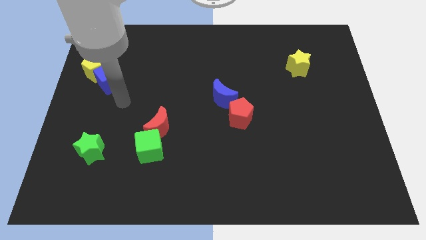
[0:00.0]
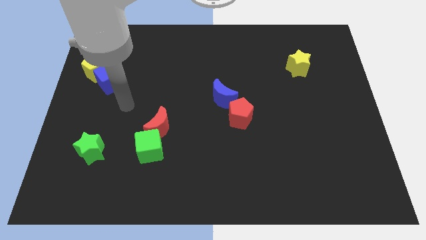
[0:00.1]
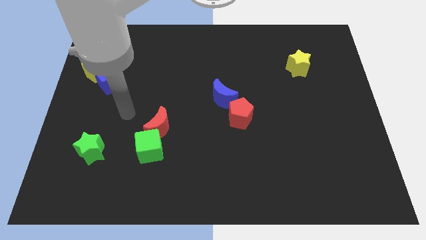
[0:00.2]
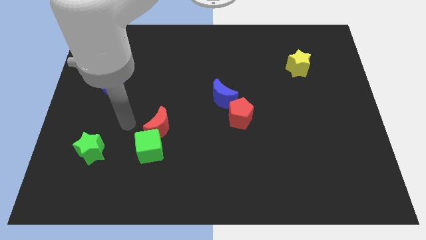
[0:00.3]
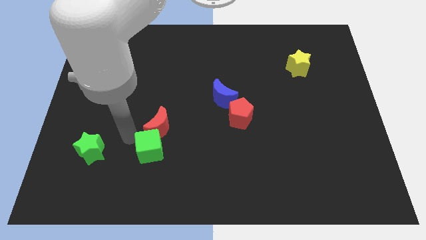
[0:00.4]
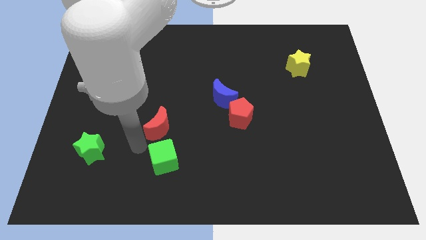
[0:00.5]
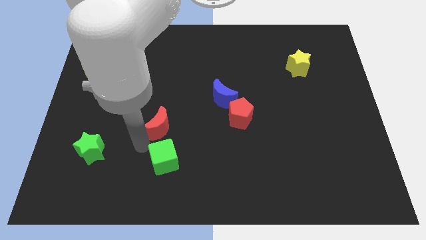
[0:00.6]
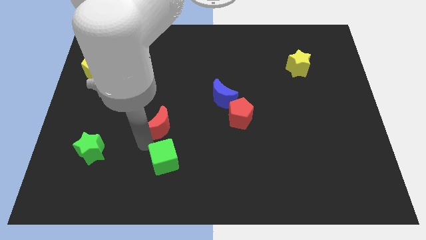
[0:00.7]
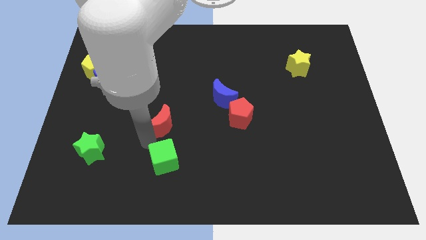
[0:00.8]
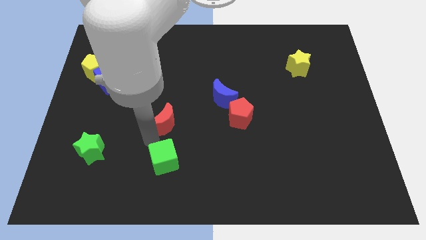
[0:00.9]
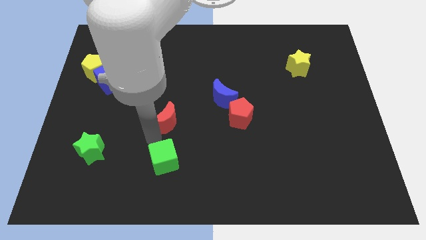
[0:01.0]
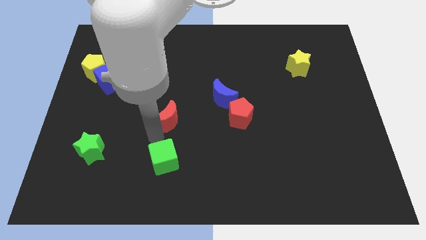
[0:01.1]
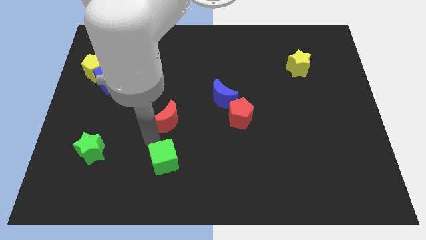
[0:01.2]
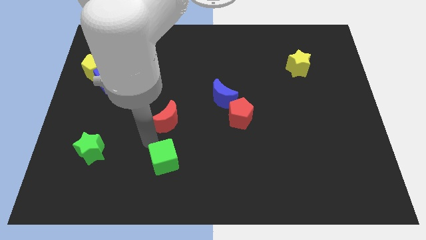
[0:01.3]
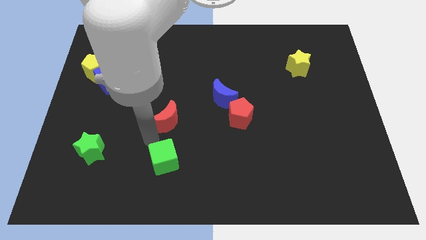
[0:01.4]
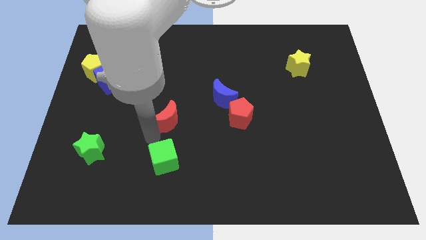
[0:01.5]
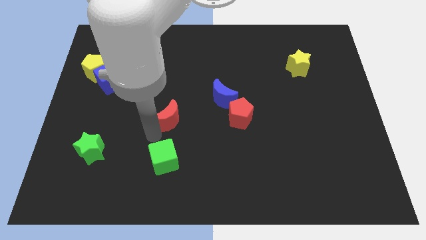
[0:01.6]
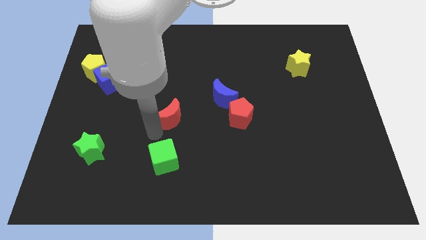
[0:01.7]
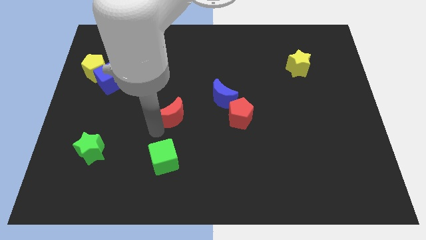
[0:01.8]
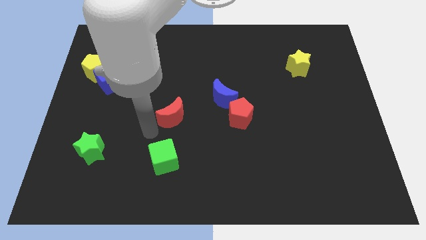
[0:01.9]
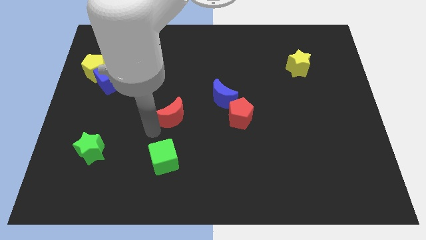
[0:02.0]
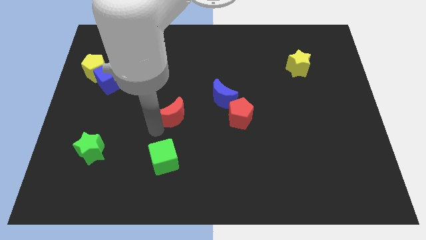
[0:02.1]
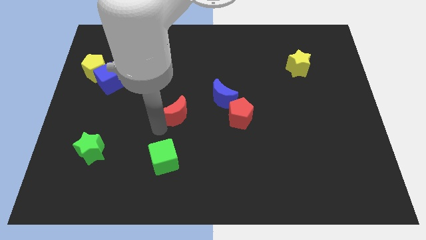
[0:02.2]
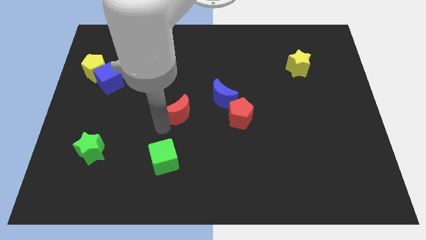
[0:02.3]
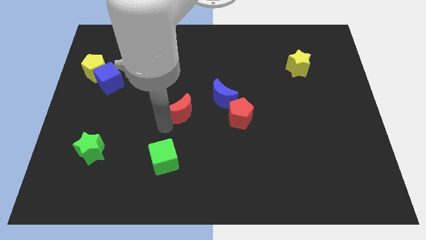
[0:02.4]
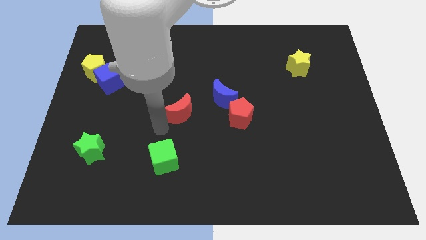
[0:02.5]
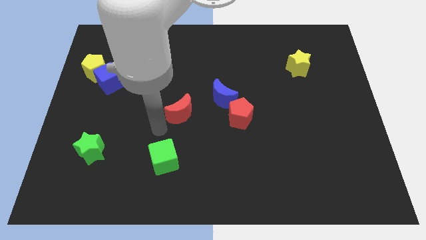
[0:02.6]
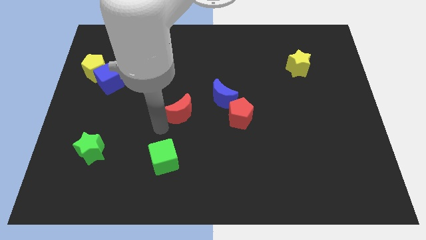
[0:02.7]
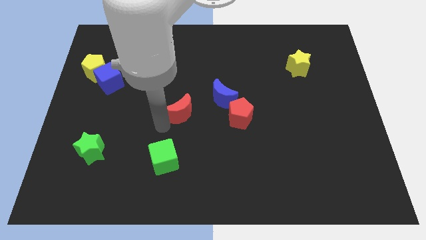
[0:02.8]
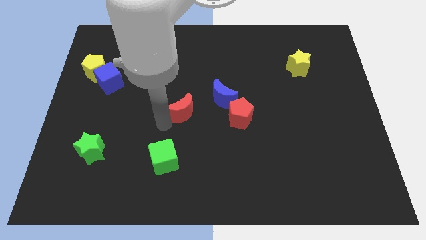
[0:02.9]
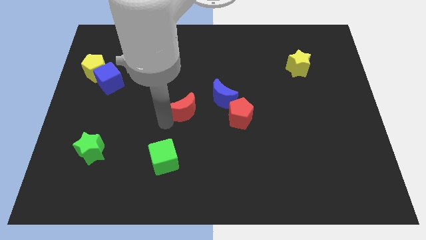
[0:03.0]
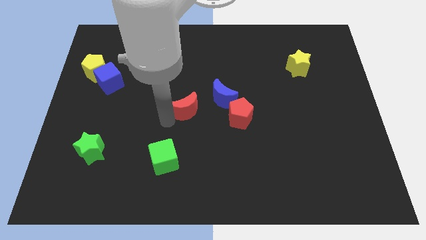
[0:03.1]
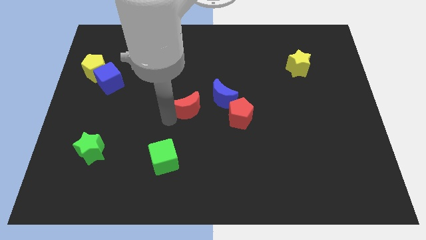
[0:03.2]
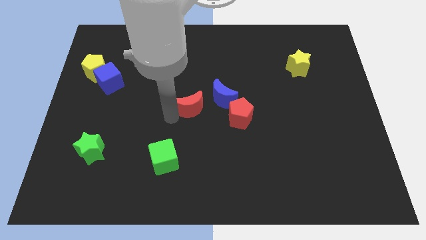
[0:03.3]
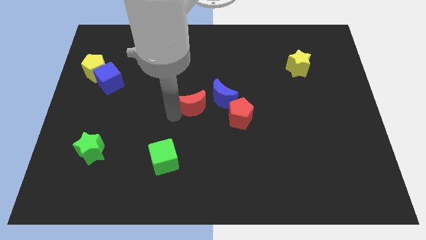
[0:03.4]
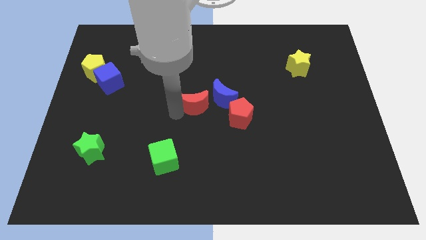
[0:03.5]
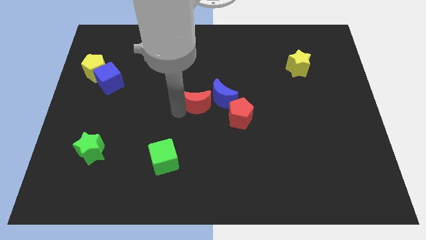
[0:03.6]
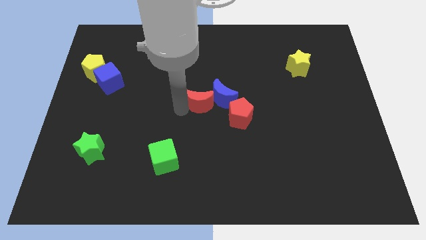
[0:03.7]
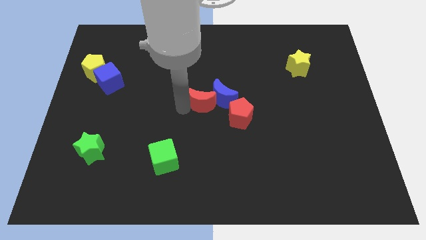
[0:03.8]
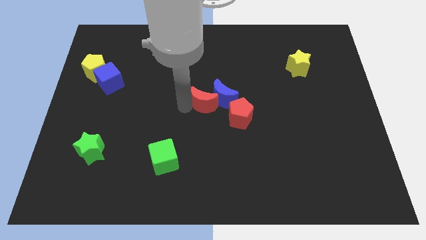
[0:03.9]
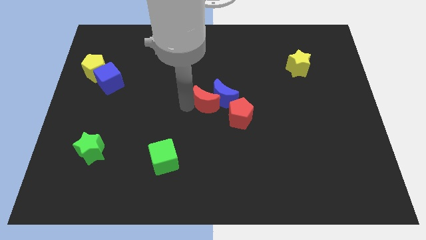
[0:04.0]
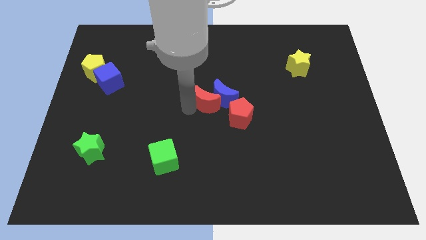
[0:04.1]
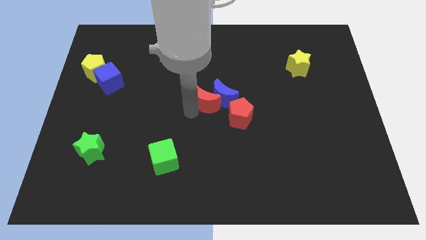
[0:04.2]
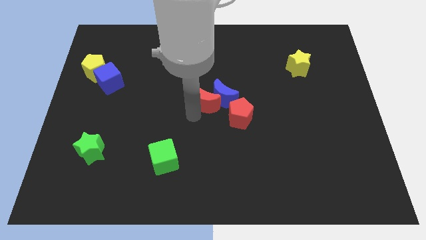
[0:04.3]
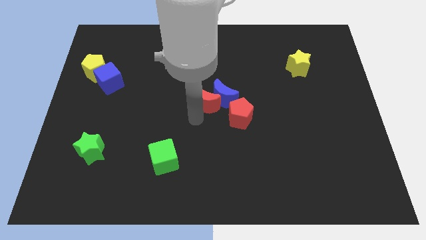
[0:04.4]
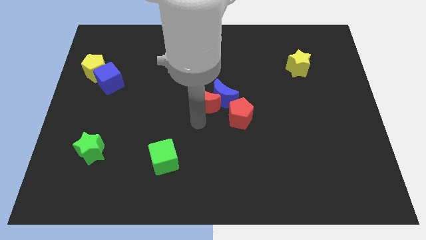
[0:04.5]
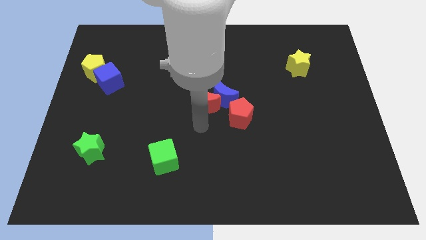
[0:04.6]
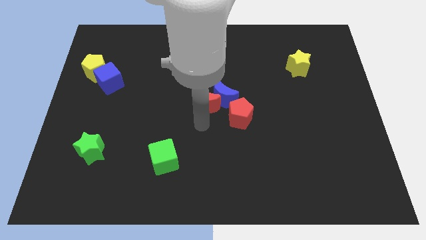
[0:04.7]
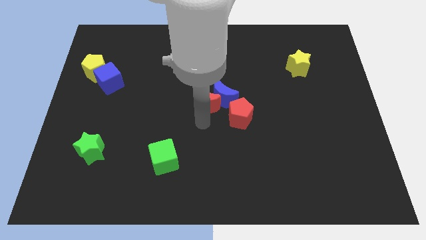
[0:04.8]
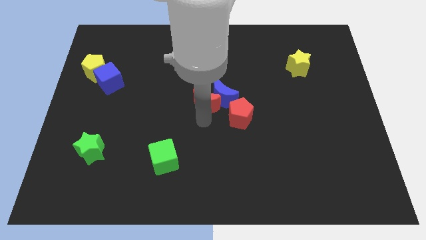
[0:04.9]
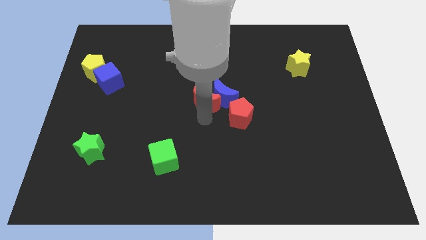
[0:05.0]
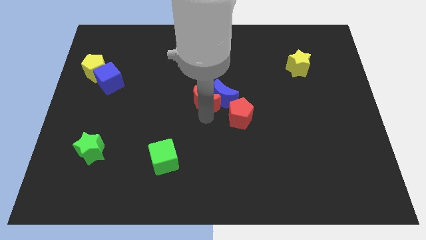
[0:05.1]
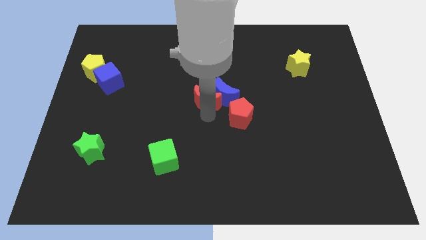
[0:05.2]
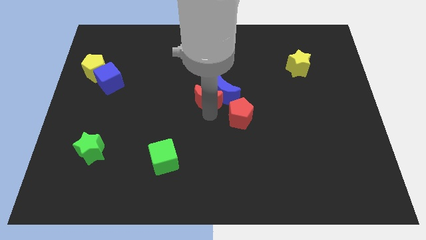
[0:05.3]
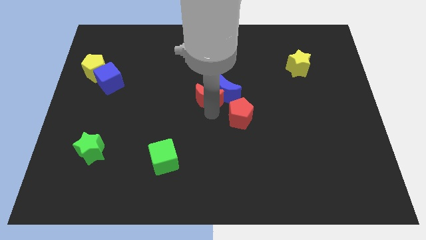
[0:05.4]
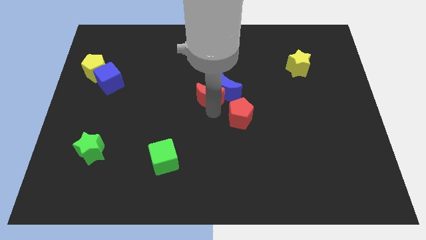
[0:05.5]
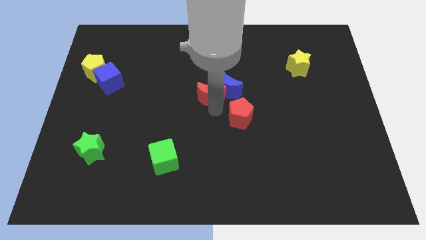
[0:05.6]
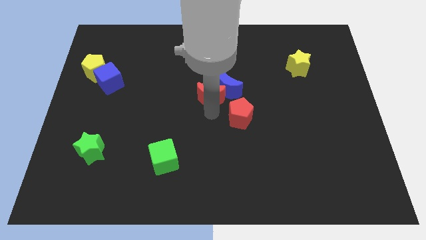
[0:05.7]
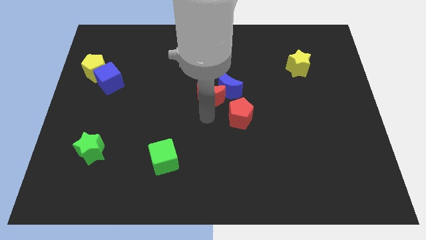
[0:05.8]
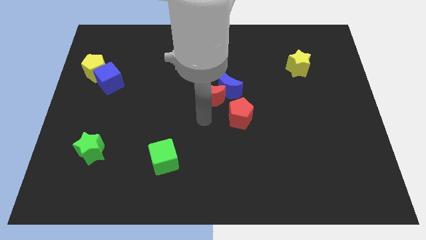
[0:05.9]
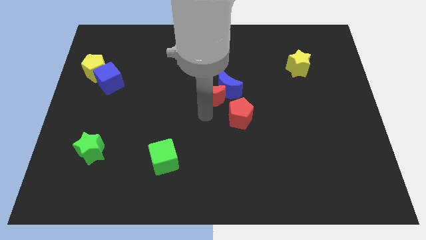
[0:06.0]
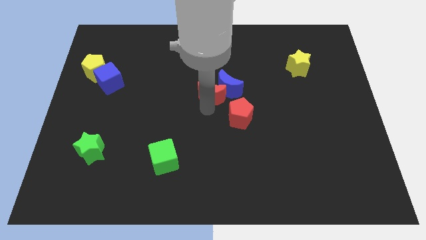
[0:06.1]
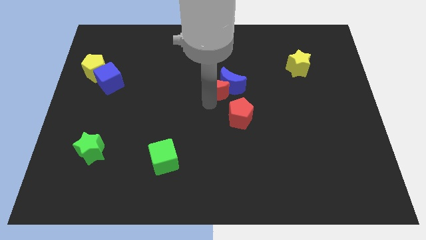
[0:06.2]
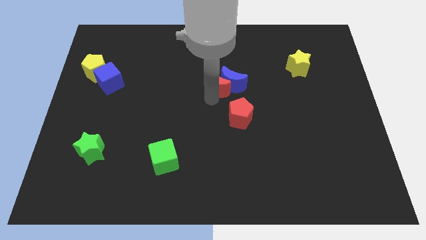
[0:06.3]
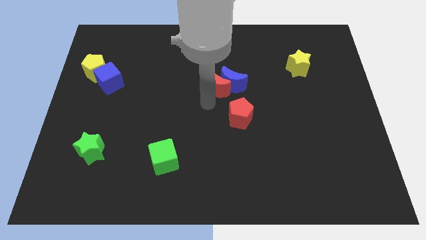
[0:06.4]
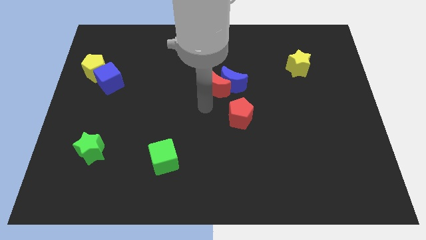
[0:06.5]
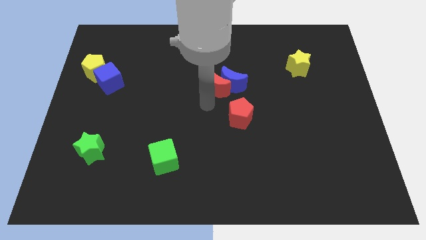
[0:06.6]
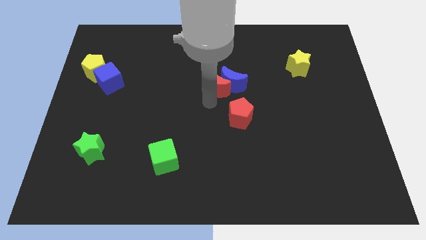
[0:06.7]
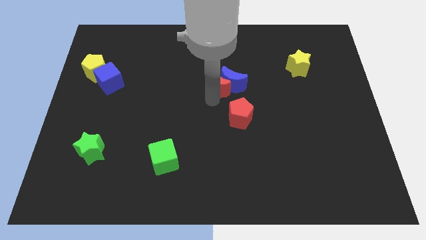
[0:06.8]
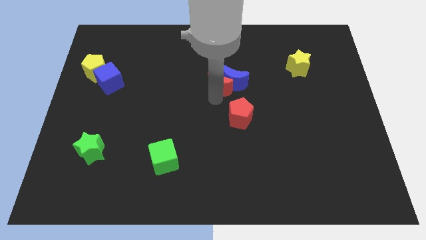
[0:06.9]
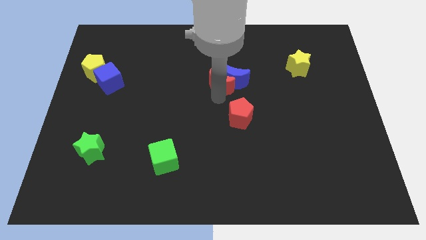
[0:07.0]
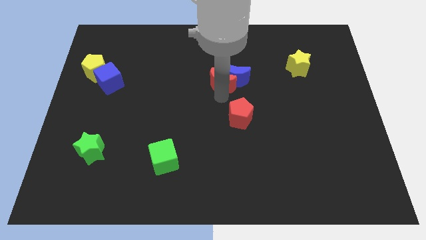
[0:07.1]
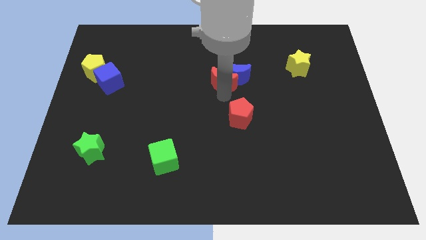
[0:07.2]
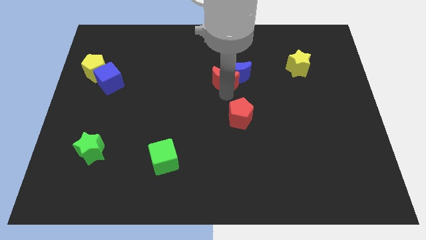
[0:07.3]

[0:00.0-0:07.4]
slide the red moon up and right diagonally

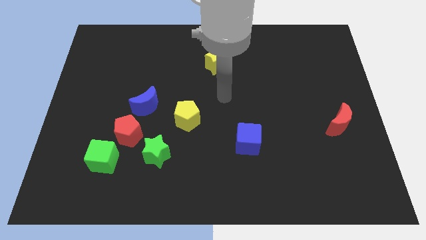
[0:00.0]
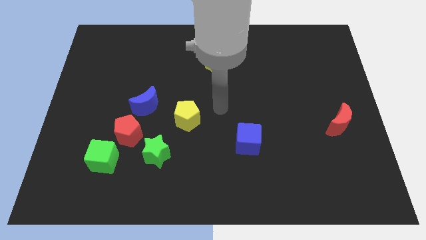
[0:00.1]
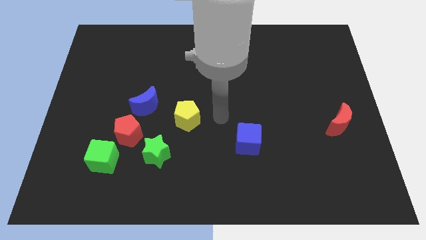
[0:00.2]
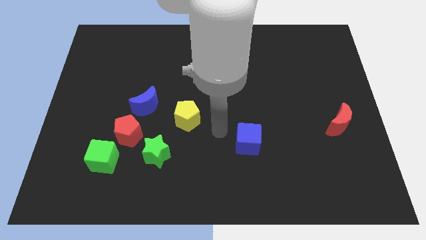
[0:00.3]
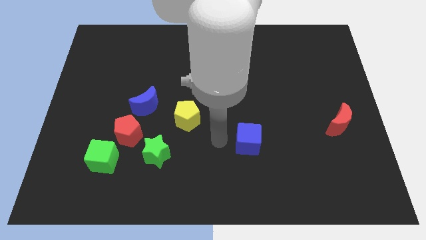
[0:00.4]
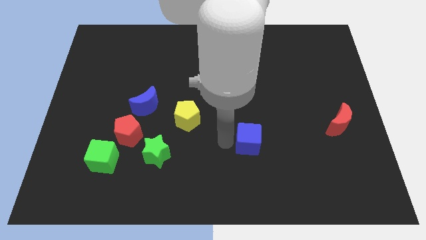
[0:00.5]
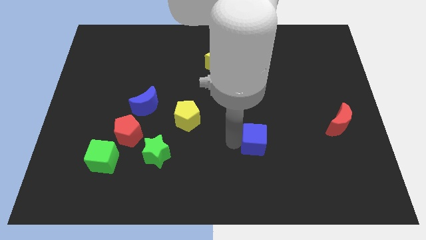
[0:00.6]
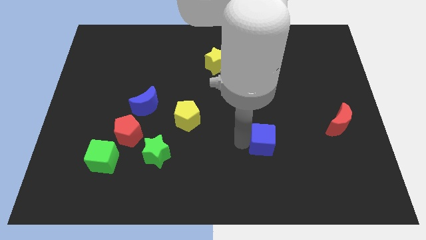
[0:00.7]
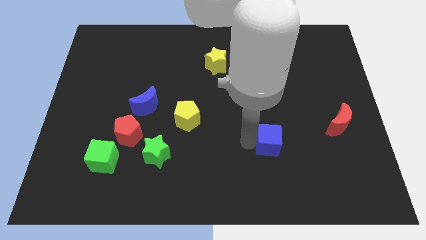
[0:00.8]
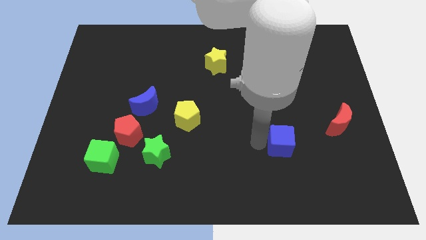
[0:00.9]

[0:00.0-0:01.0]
slightly push the blue cube right
